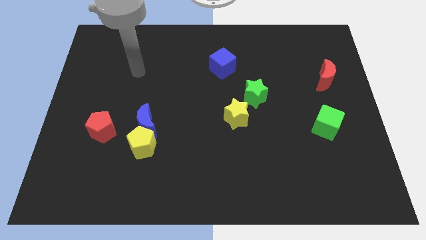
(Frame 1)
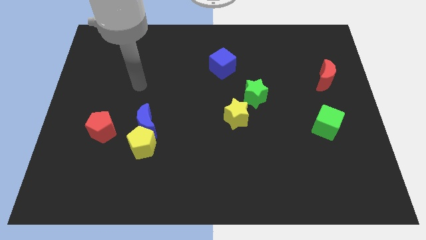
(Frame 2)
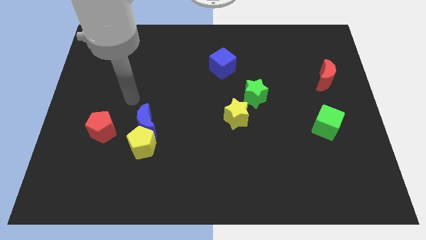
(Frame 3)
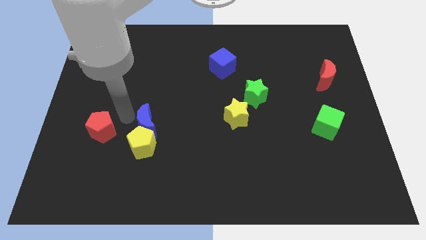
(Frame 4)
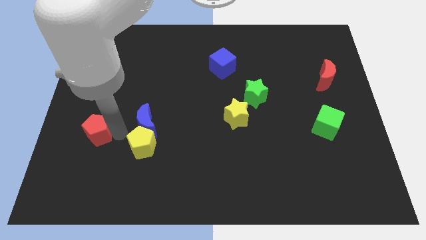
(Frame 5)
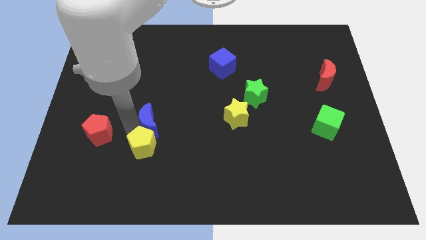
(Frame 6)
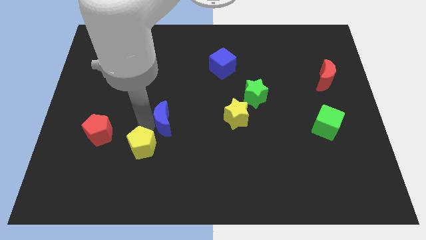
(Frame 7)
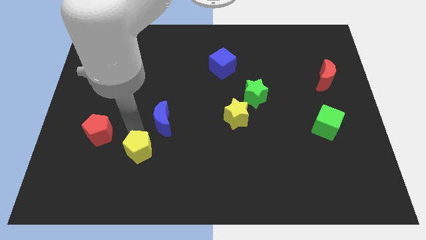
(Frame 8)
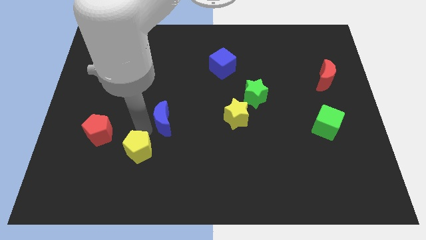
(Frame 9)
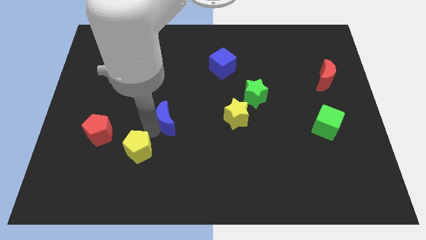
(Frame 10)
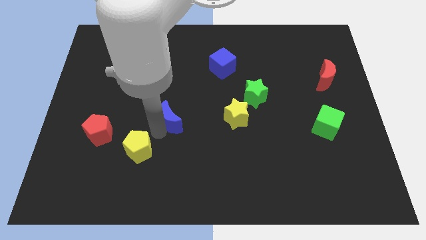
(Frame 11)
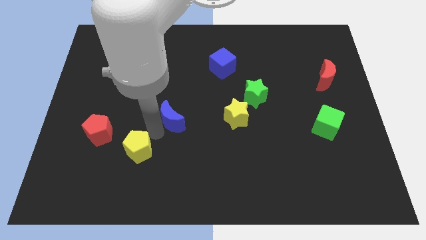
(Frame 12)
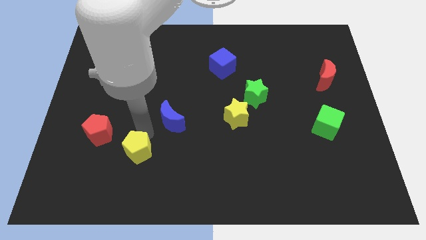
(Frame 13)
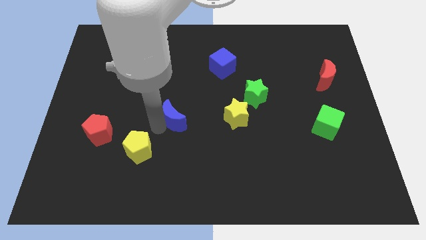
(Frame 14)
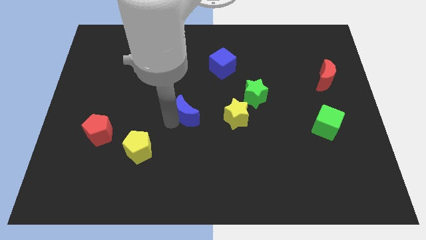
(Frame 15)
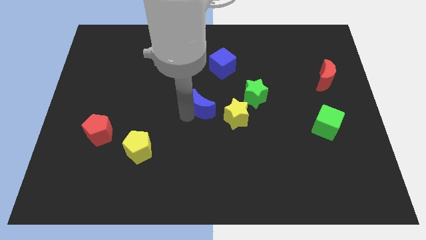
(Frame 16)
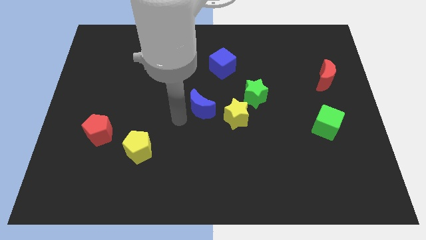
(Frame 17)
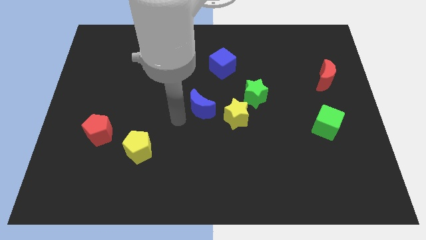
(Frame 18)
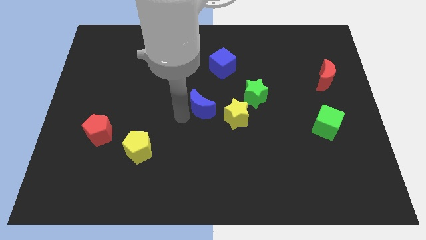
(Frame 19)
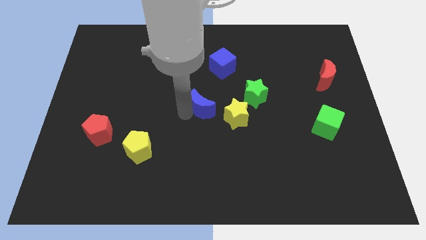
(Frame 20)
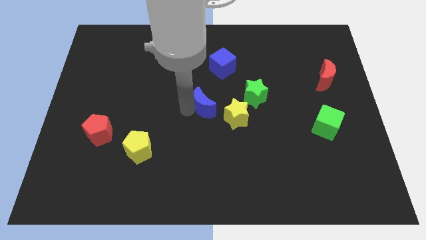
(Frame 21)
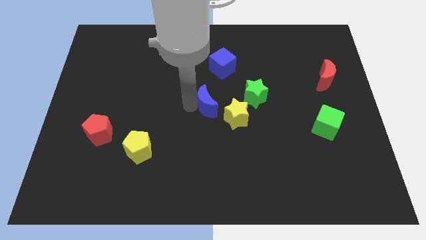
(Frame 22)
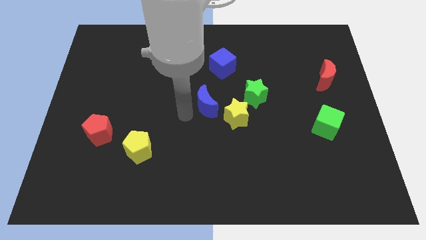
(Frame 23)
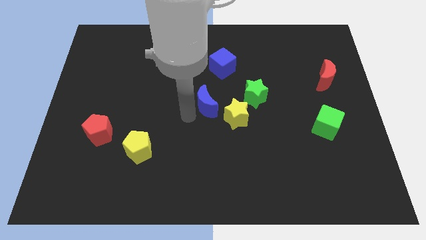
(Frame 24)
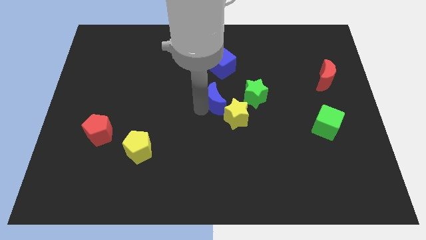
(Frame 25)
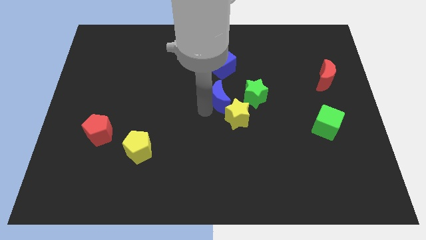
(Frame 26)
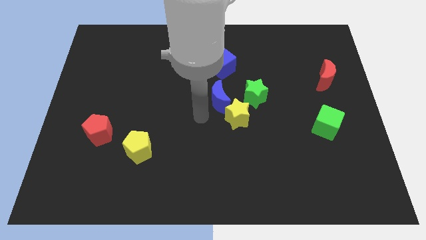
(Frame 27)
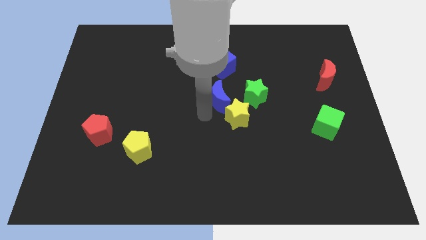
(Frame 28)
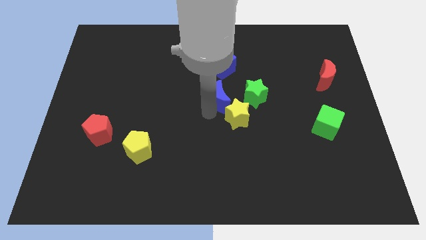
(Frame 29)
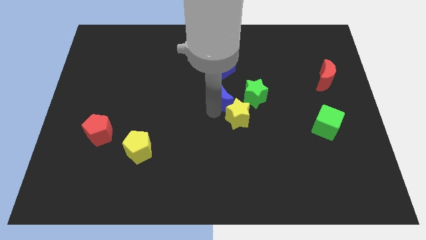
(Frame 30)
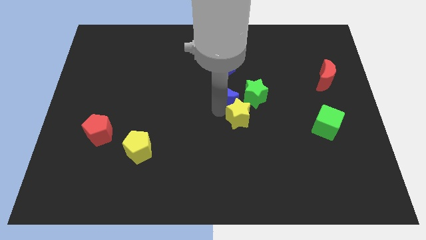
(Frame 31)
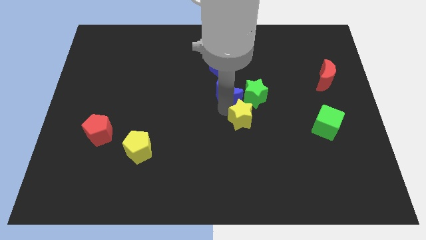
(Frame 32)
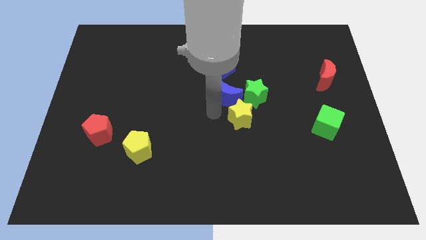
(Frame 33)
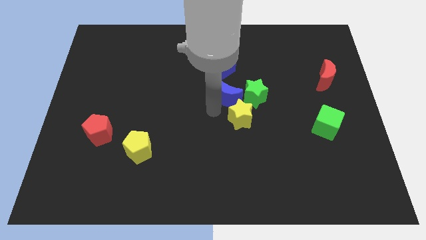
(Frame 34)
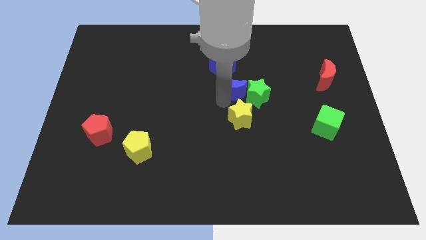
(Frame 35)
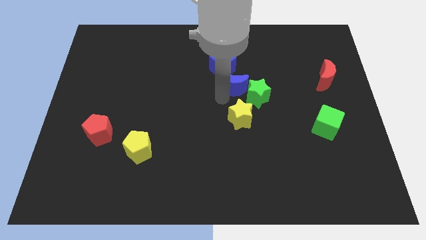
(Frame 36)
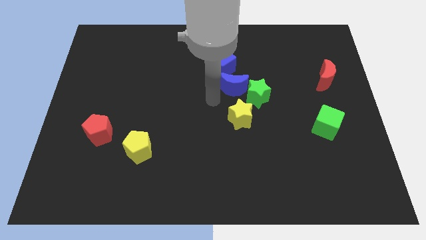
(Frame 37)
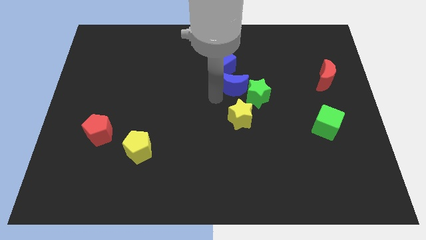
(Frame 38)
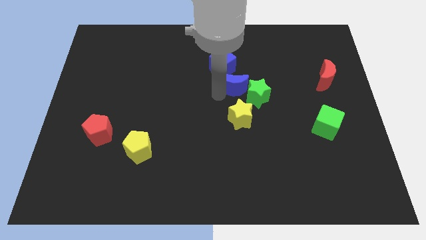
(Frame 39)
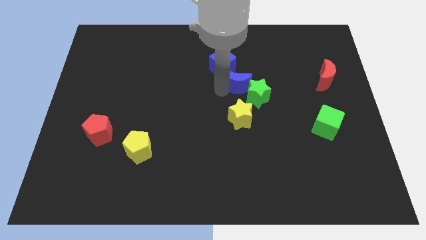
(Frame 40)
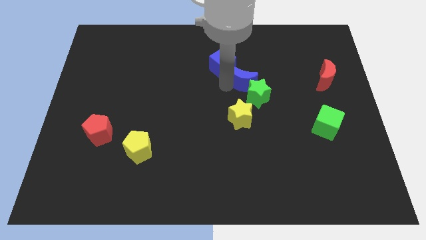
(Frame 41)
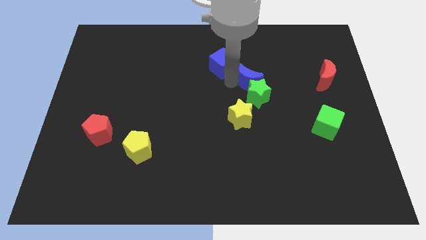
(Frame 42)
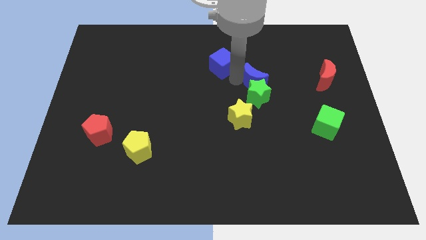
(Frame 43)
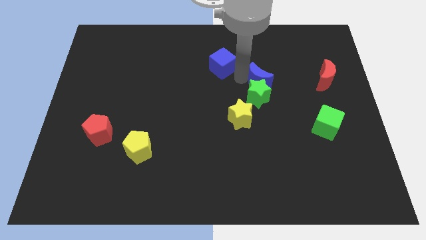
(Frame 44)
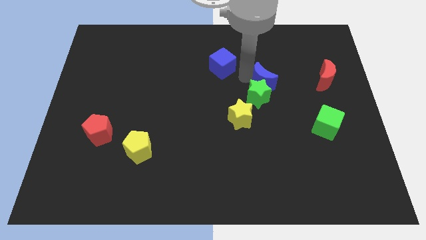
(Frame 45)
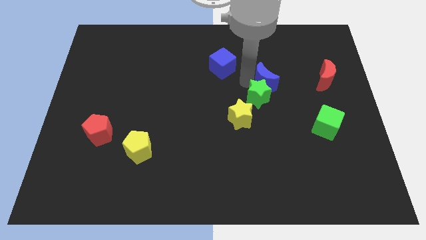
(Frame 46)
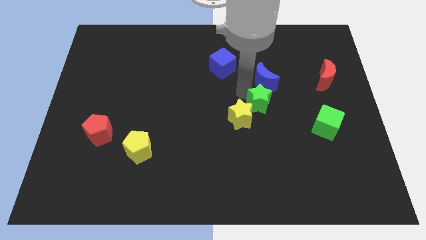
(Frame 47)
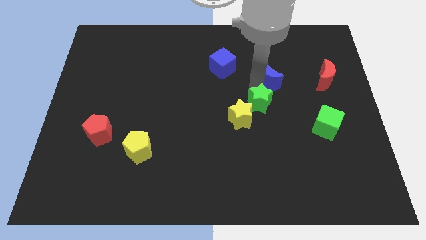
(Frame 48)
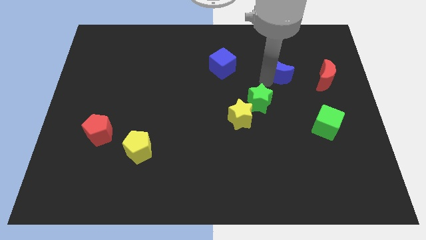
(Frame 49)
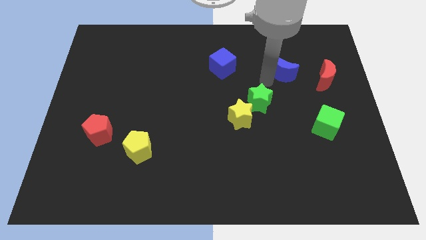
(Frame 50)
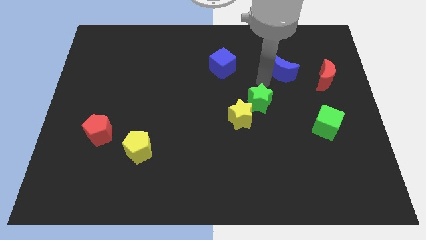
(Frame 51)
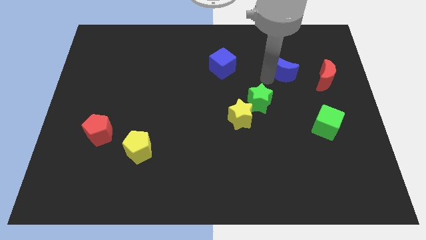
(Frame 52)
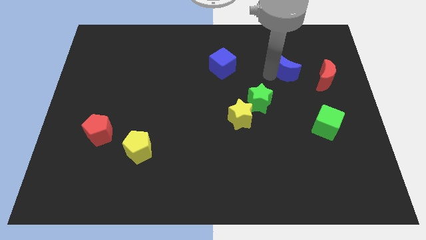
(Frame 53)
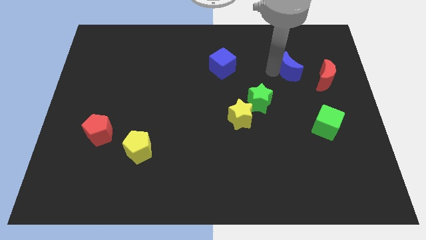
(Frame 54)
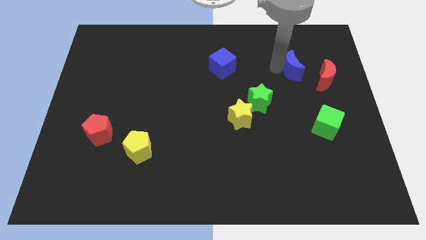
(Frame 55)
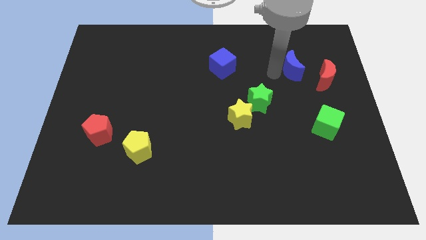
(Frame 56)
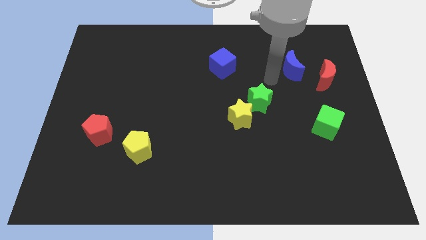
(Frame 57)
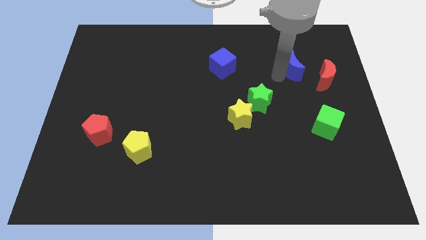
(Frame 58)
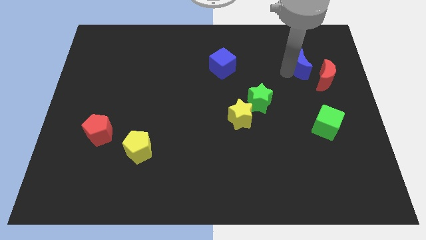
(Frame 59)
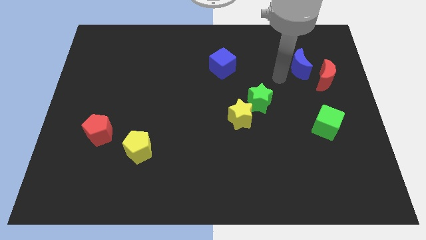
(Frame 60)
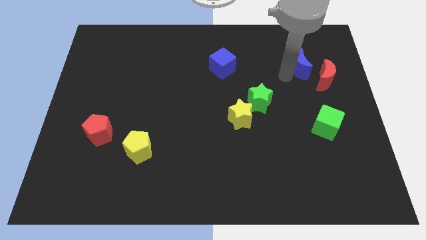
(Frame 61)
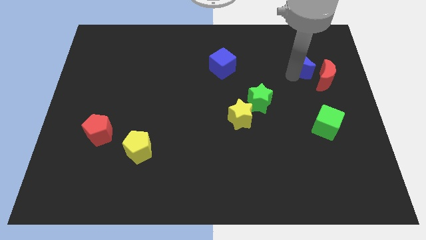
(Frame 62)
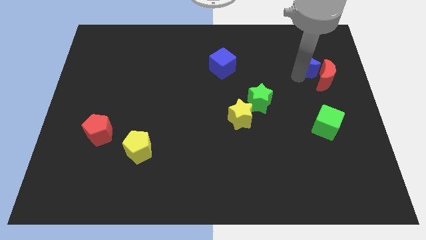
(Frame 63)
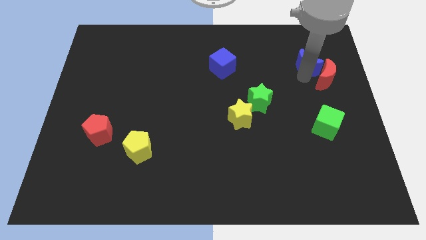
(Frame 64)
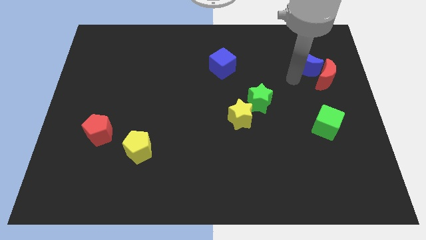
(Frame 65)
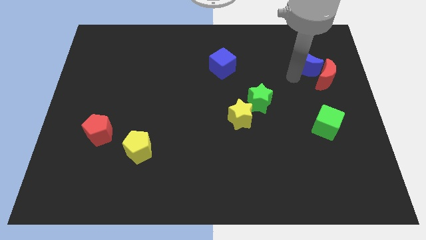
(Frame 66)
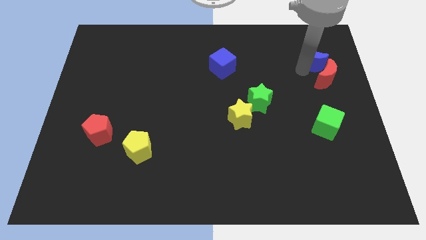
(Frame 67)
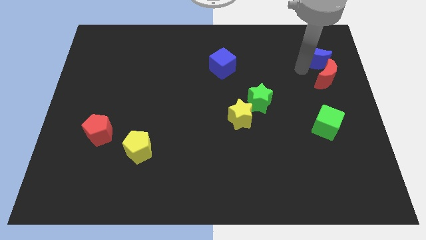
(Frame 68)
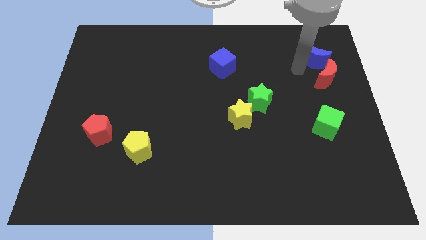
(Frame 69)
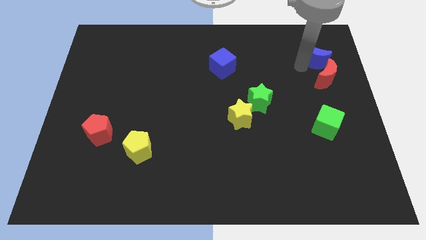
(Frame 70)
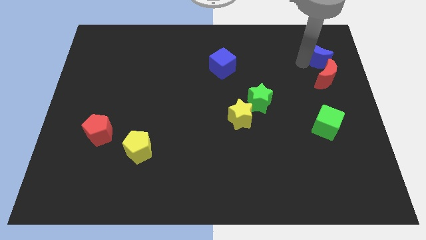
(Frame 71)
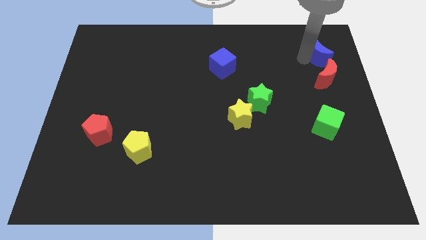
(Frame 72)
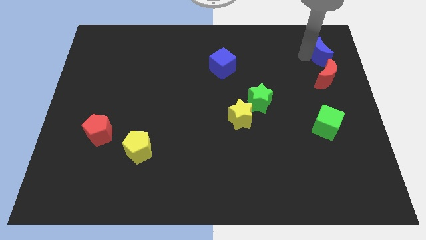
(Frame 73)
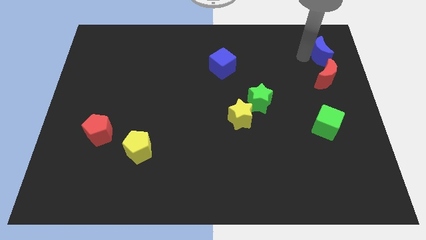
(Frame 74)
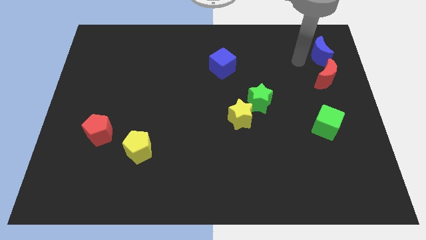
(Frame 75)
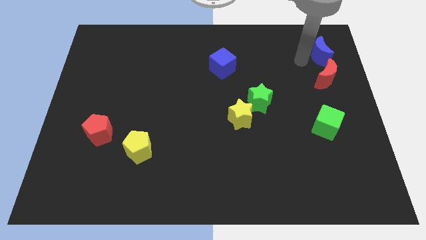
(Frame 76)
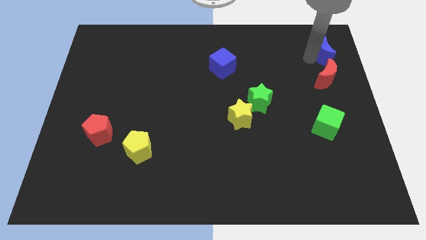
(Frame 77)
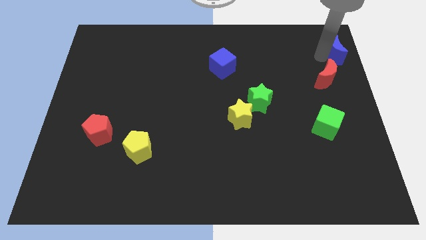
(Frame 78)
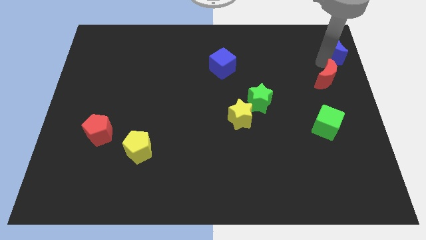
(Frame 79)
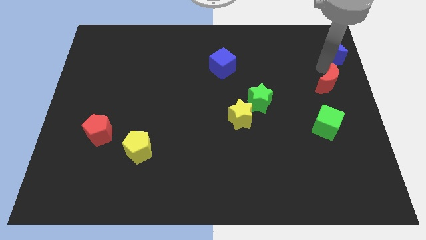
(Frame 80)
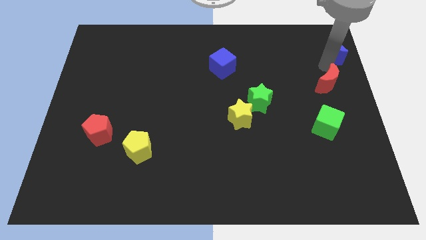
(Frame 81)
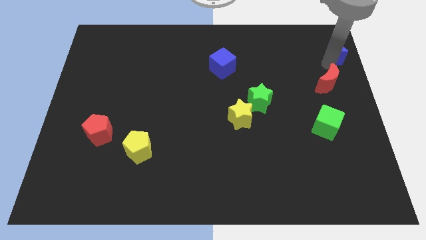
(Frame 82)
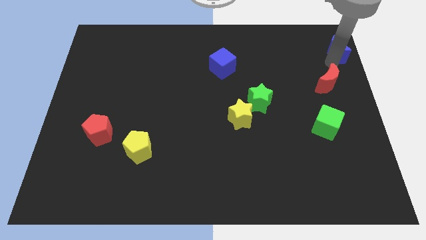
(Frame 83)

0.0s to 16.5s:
push the blue moon to the top right of the board
